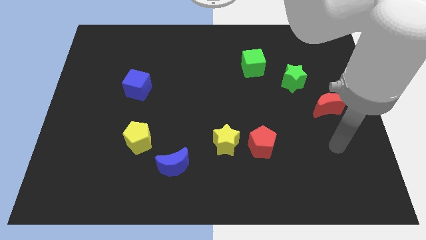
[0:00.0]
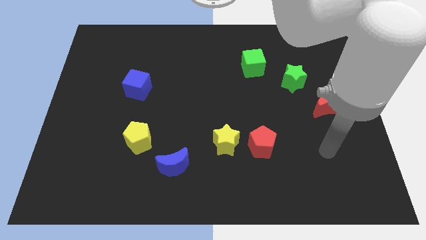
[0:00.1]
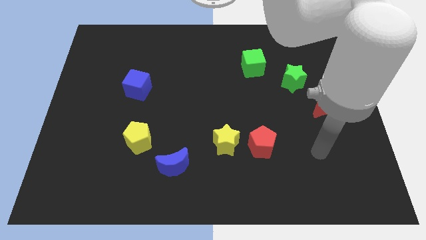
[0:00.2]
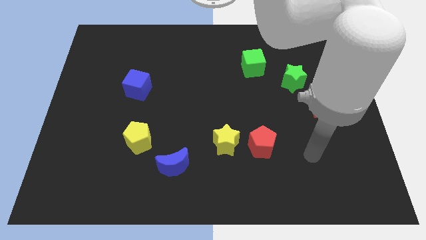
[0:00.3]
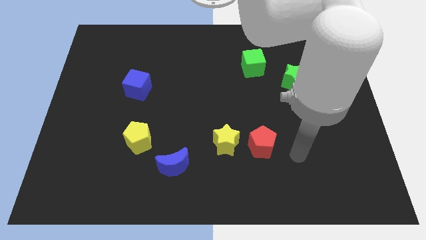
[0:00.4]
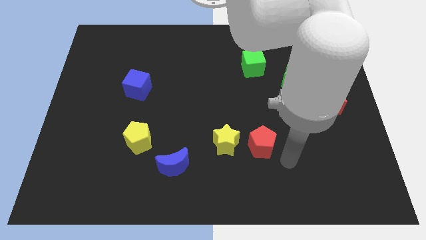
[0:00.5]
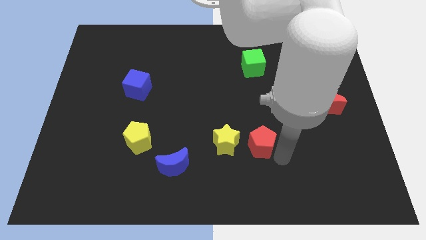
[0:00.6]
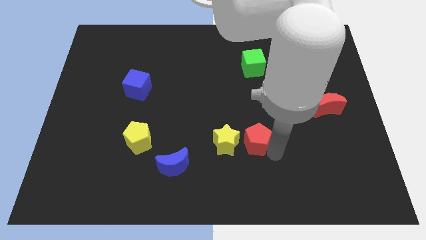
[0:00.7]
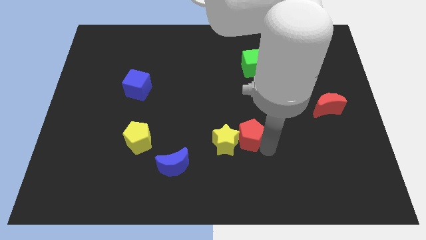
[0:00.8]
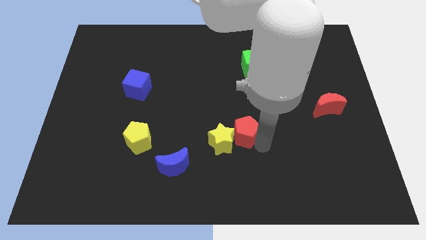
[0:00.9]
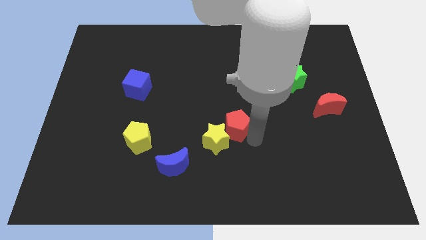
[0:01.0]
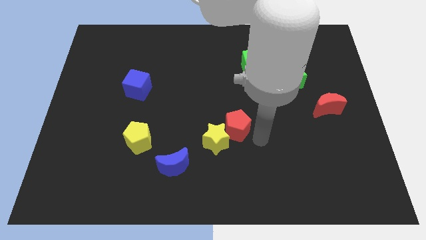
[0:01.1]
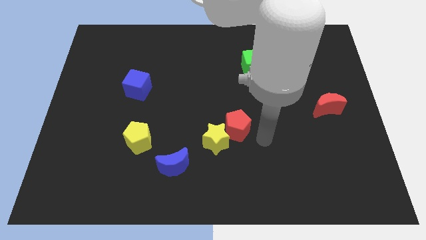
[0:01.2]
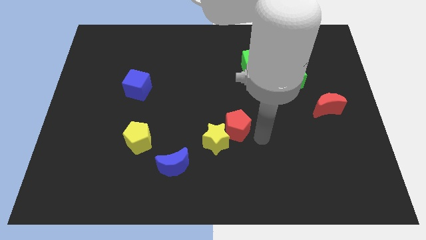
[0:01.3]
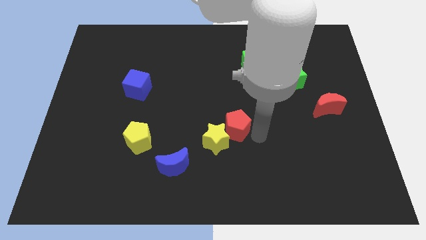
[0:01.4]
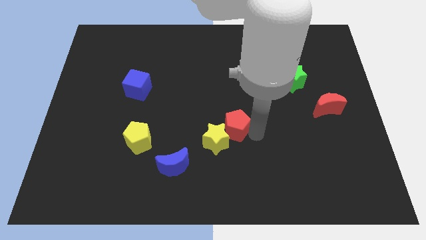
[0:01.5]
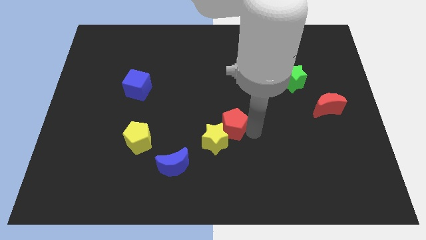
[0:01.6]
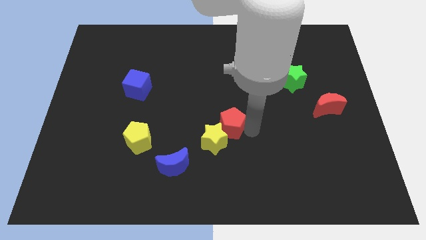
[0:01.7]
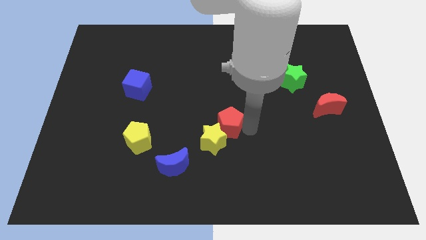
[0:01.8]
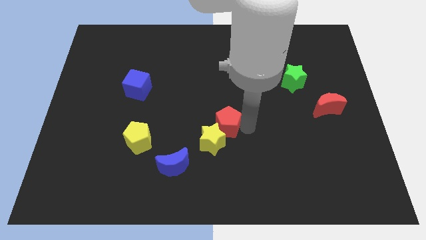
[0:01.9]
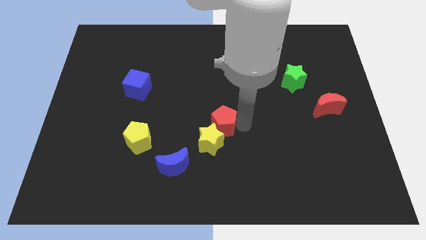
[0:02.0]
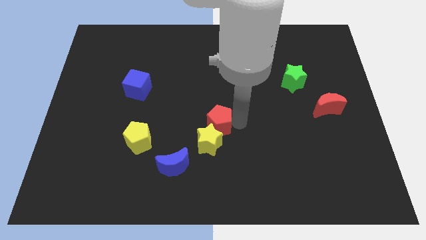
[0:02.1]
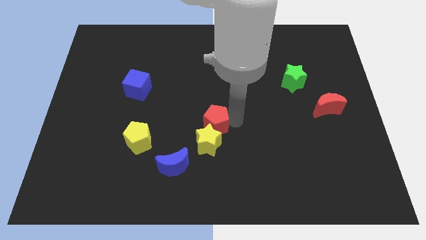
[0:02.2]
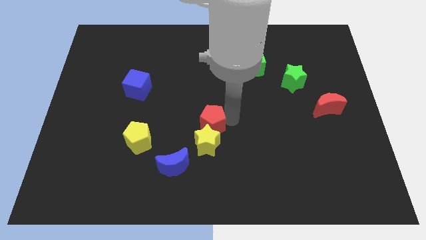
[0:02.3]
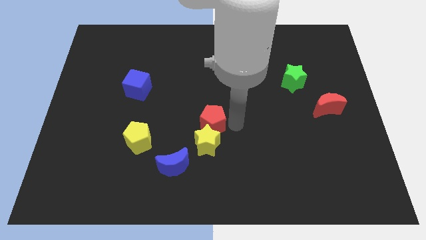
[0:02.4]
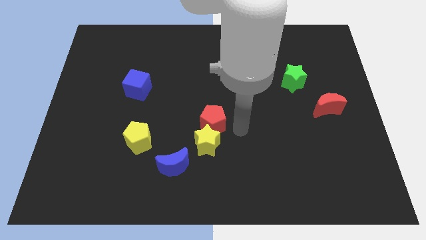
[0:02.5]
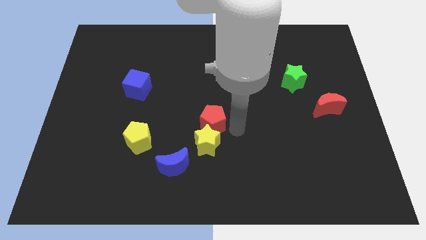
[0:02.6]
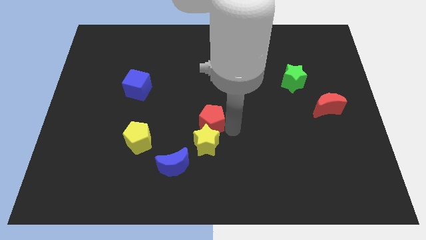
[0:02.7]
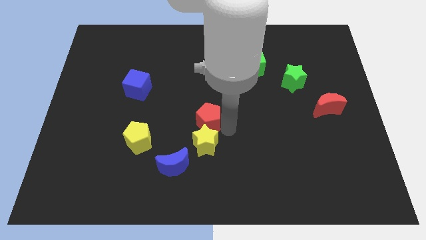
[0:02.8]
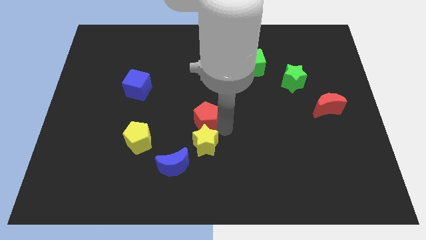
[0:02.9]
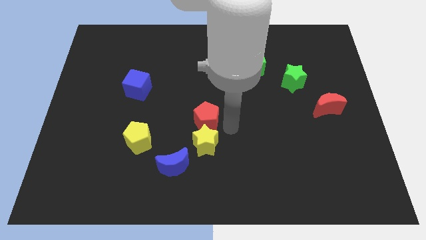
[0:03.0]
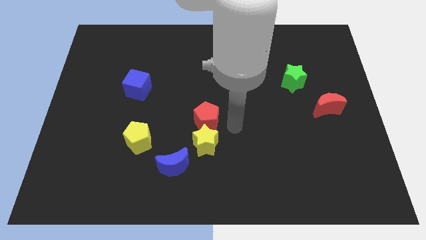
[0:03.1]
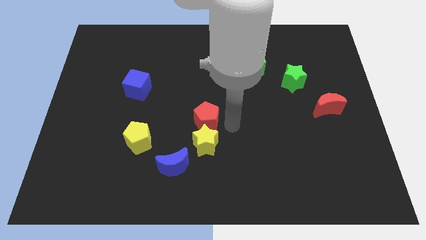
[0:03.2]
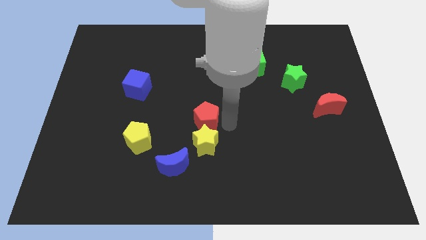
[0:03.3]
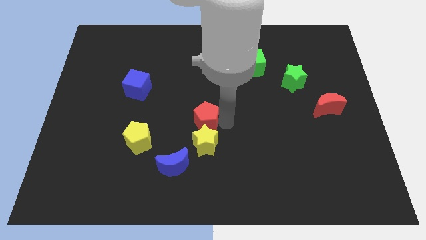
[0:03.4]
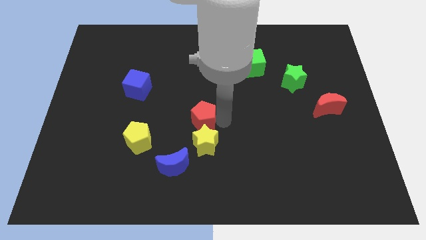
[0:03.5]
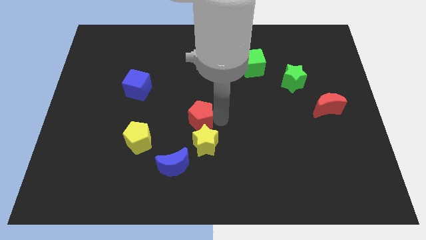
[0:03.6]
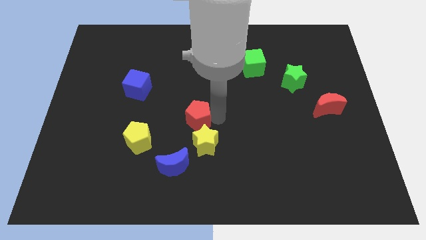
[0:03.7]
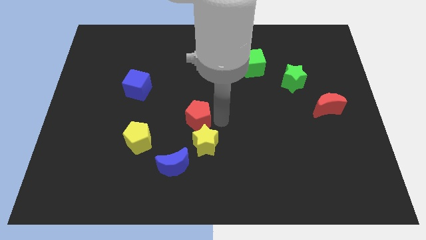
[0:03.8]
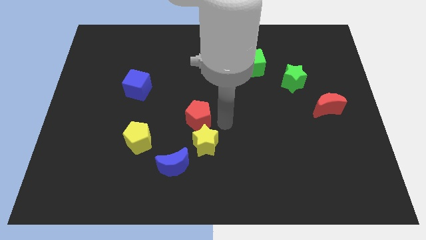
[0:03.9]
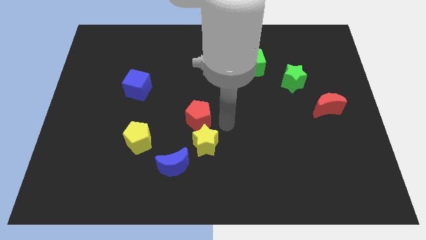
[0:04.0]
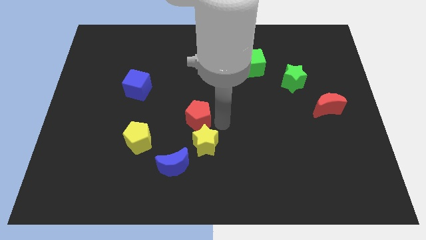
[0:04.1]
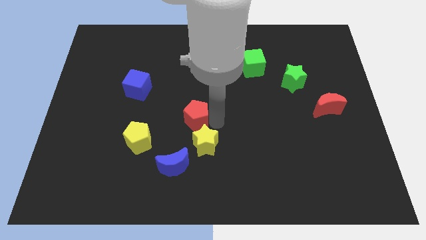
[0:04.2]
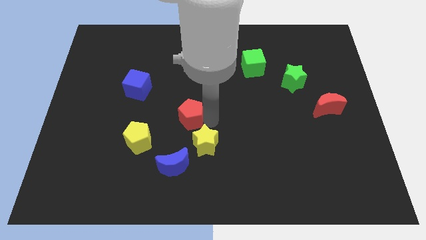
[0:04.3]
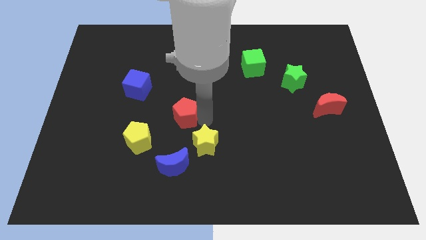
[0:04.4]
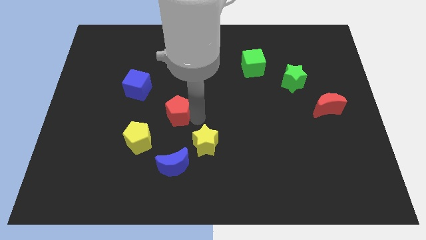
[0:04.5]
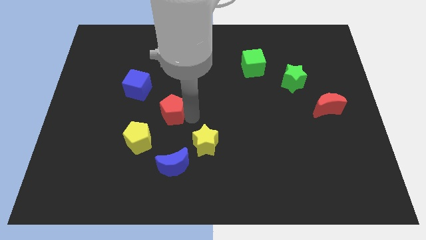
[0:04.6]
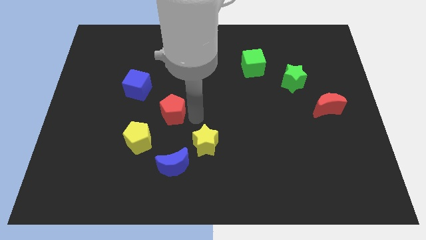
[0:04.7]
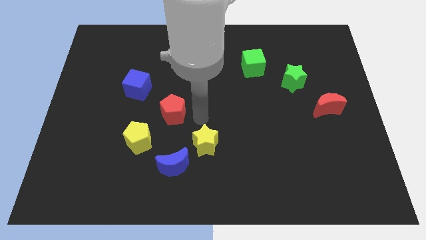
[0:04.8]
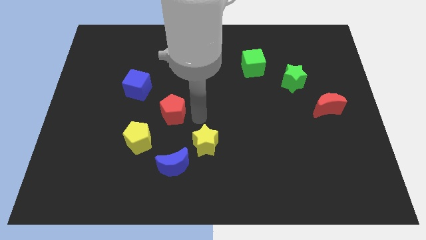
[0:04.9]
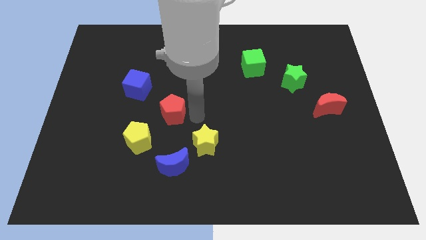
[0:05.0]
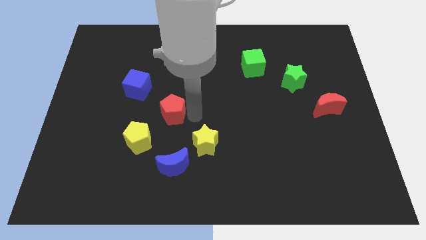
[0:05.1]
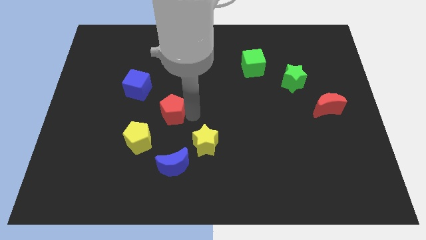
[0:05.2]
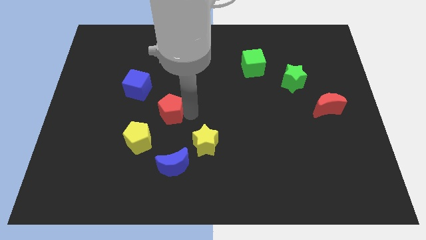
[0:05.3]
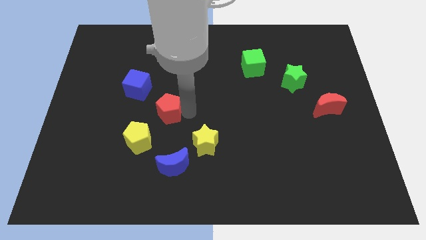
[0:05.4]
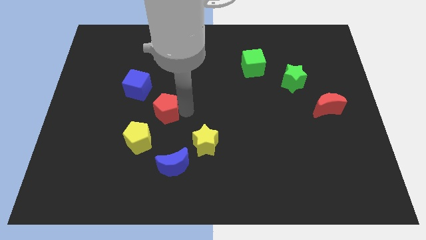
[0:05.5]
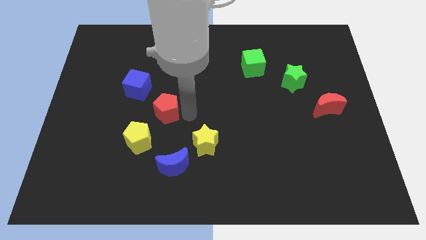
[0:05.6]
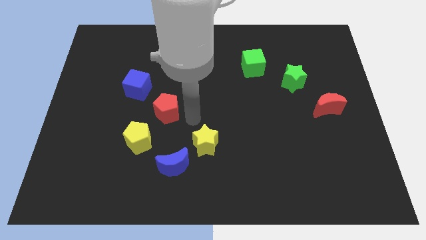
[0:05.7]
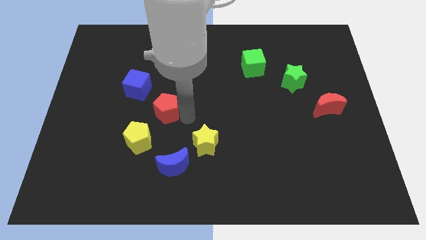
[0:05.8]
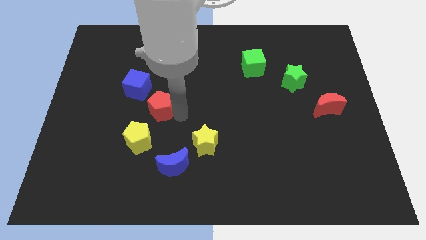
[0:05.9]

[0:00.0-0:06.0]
put the red pentagon above the yellow pentagon
